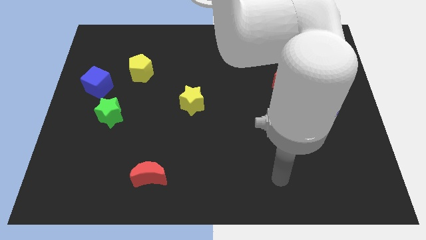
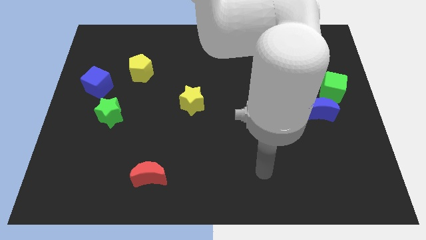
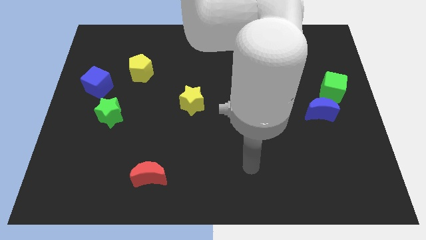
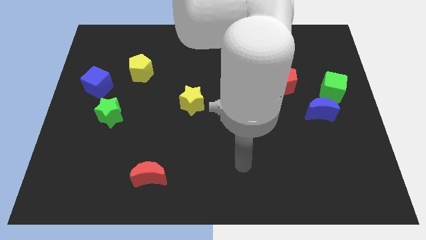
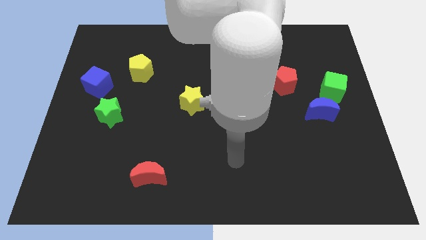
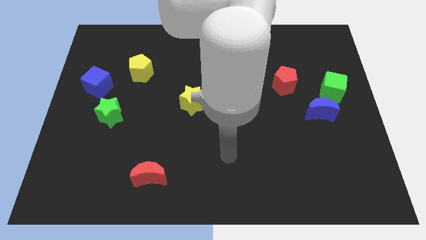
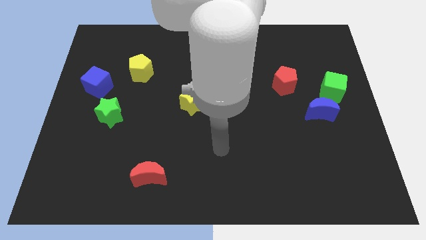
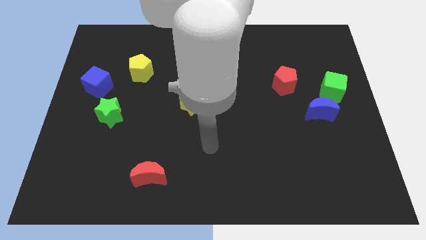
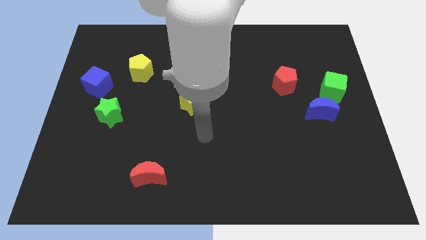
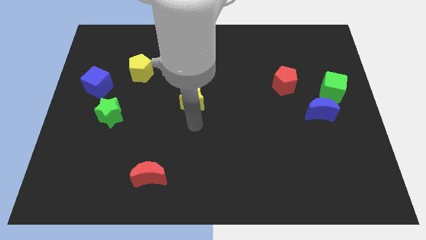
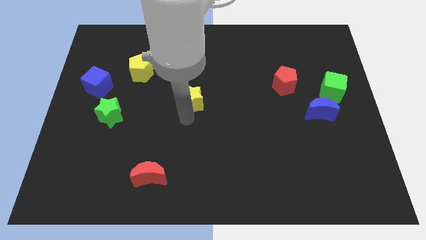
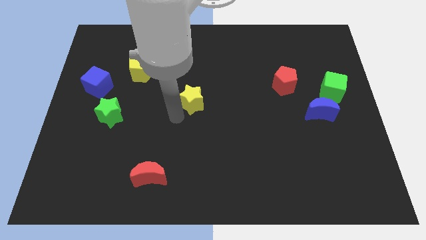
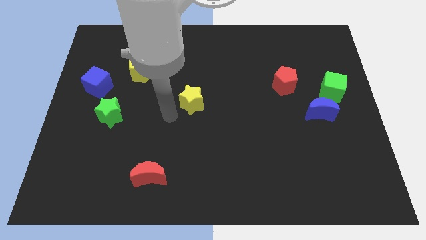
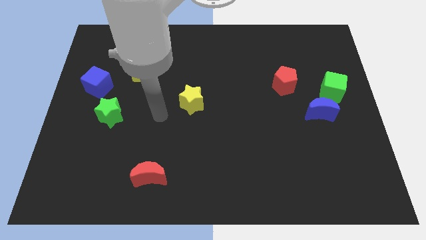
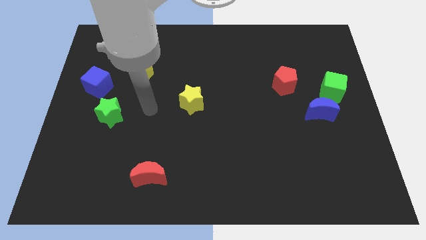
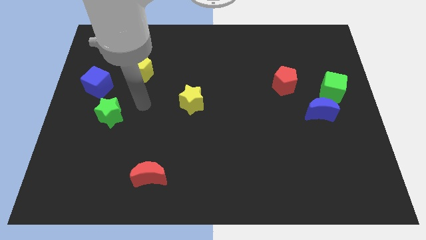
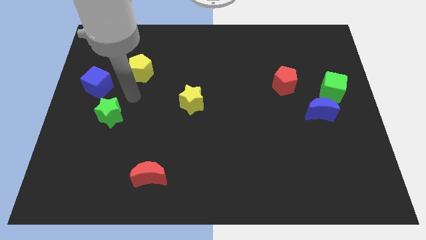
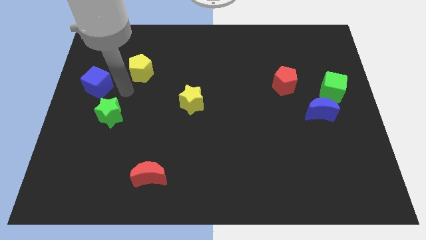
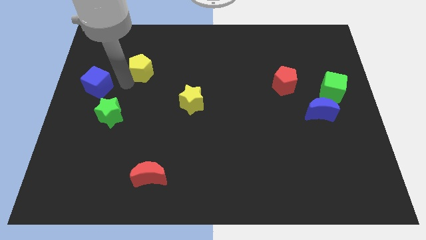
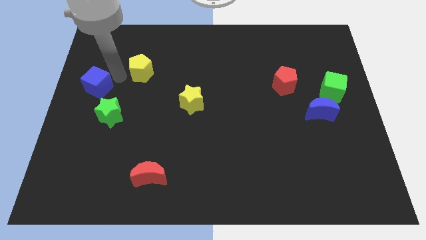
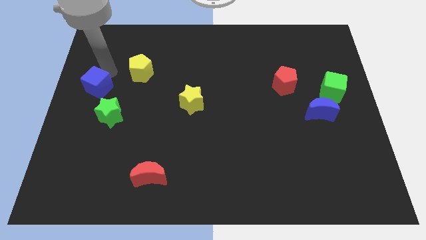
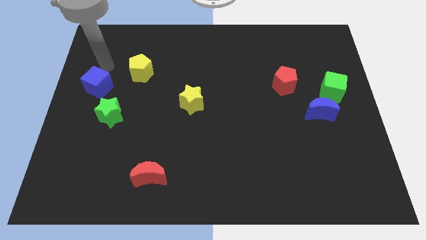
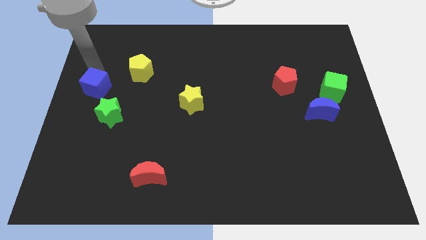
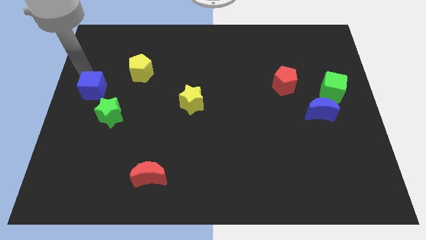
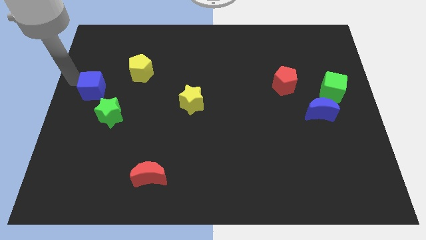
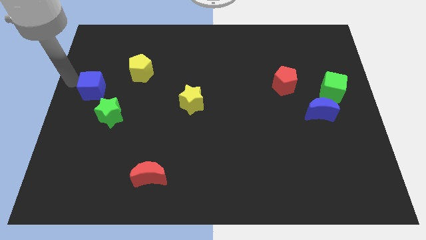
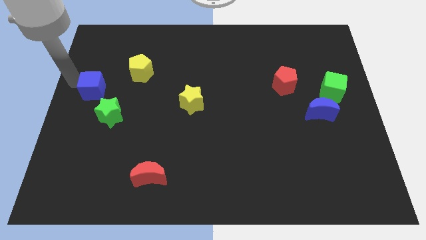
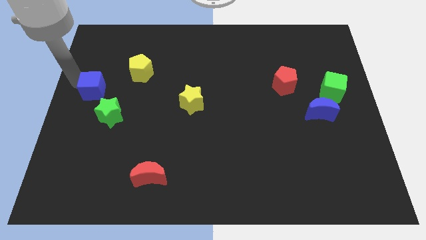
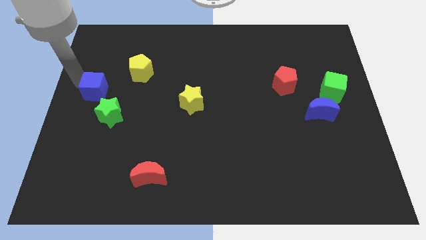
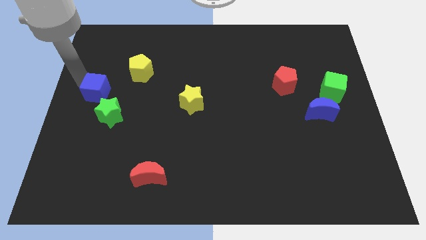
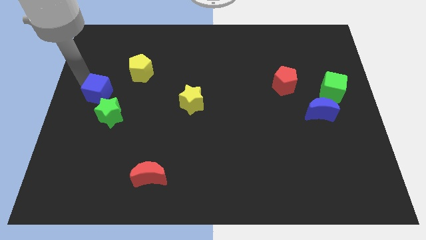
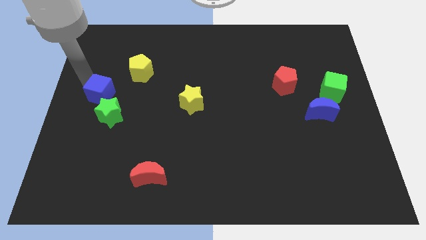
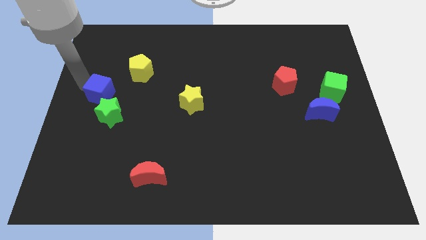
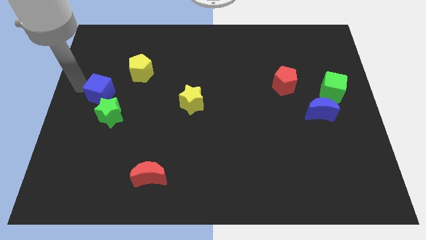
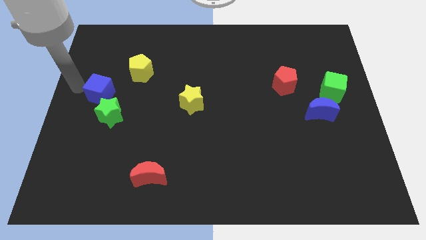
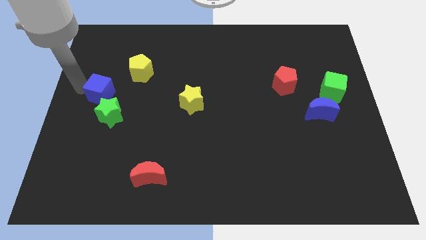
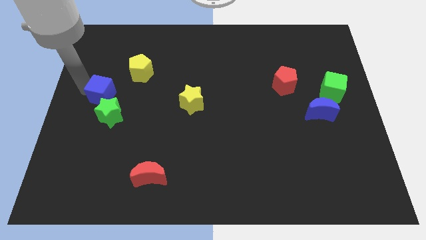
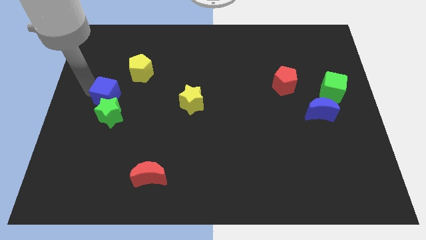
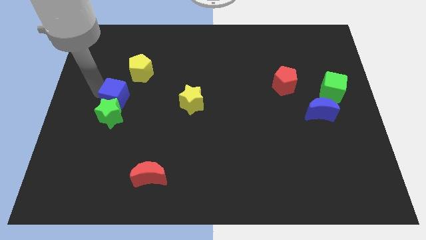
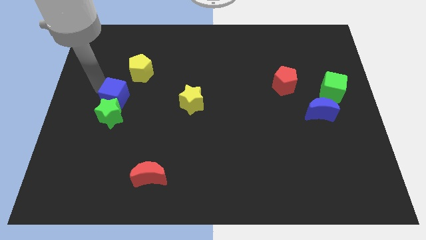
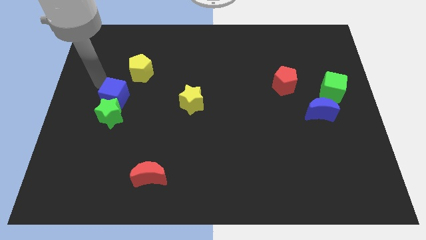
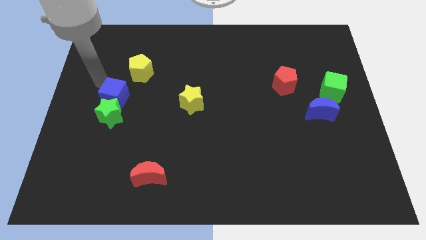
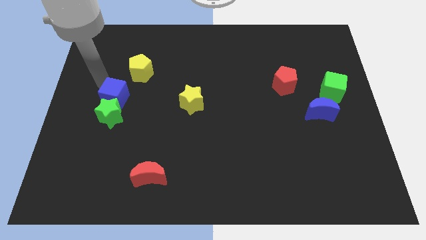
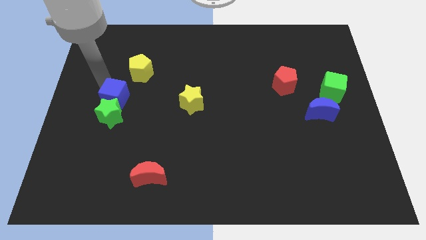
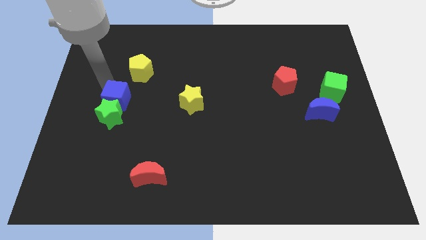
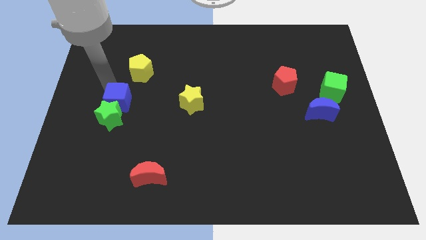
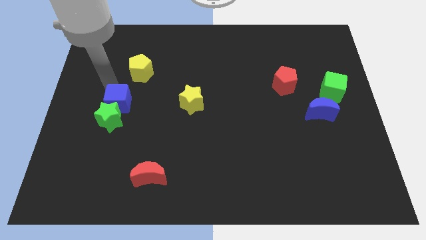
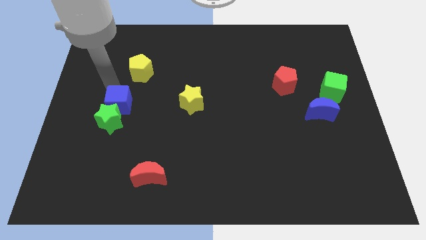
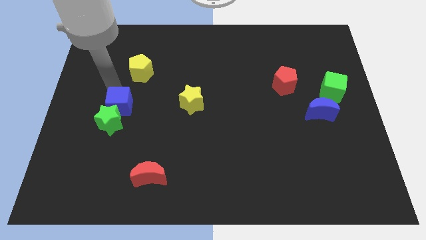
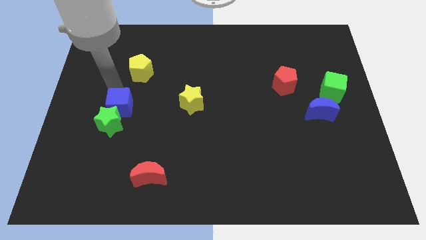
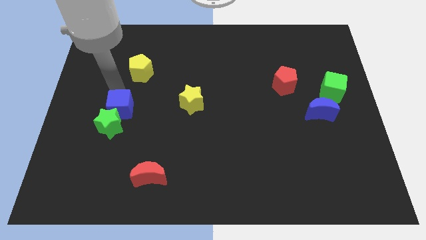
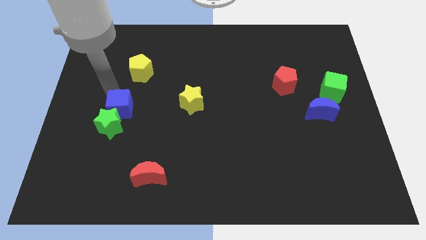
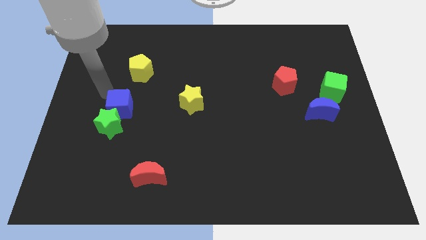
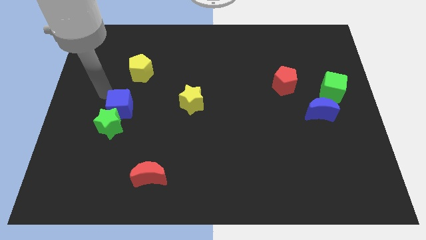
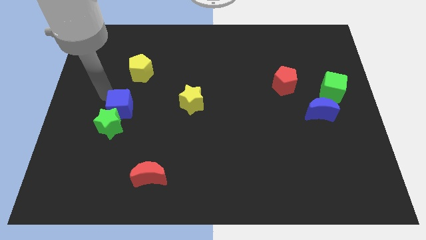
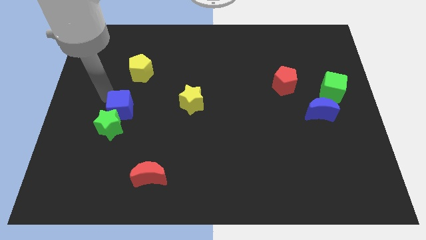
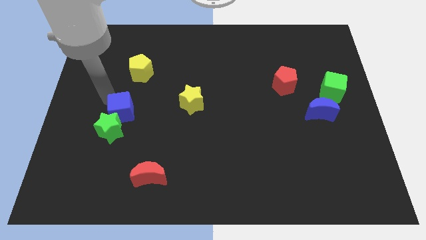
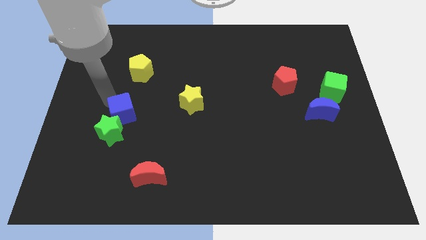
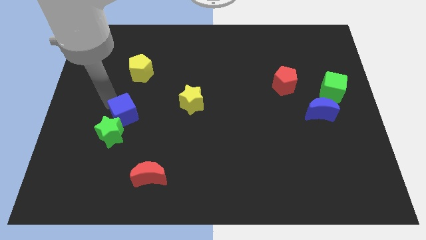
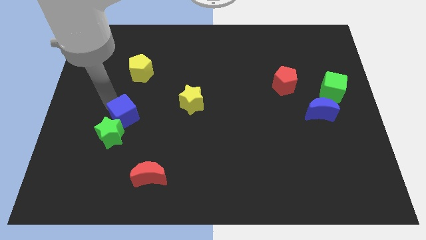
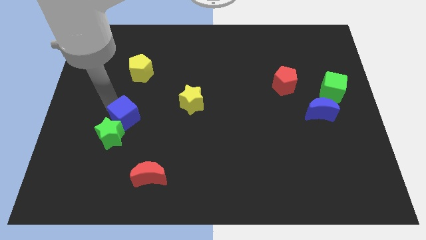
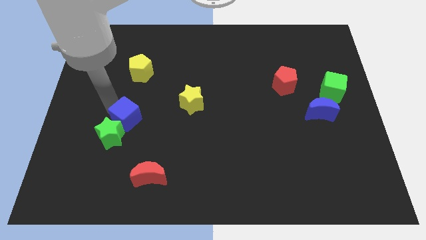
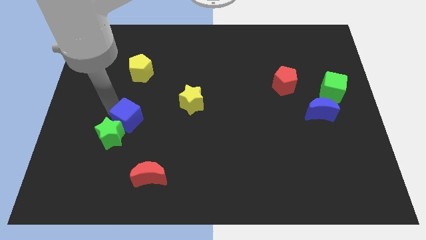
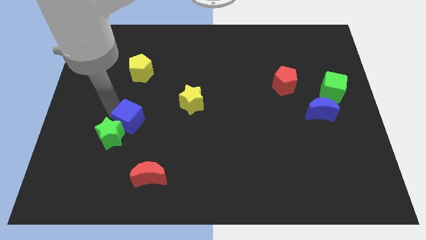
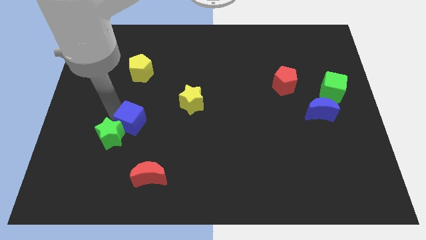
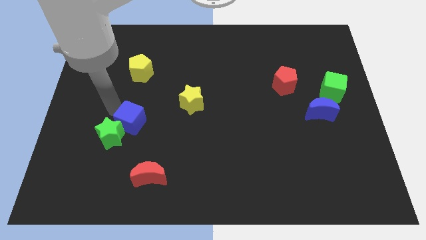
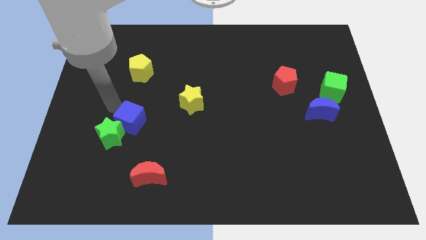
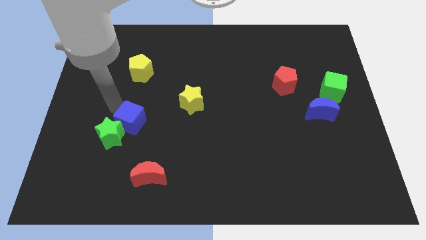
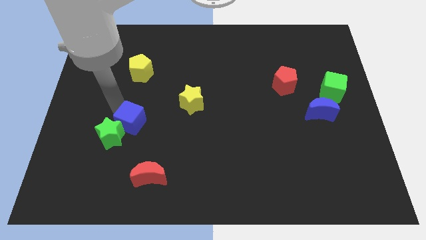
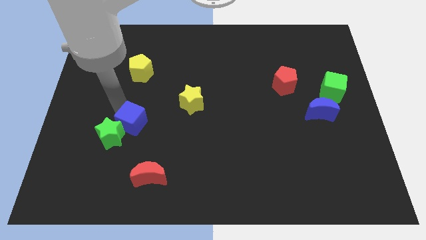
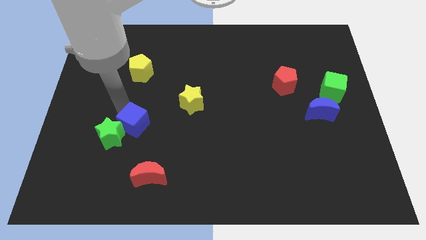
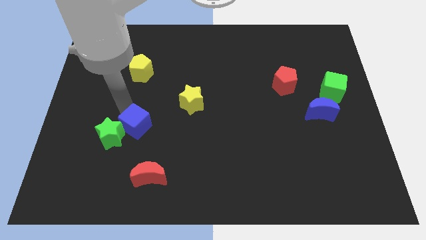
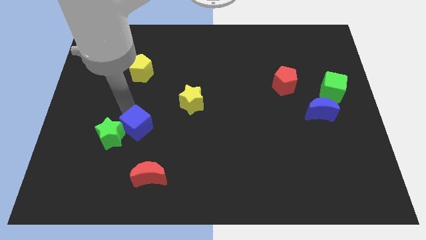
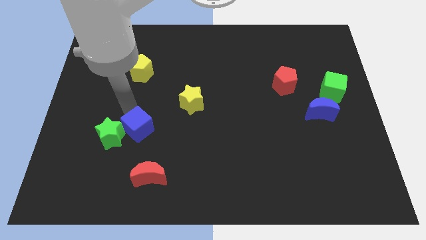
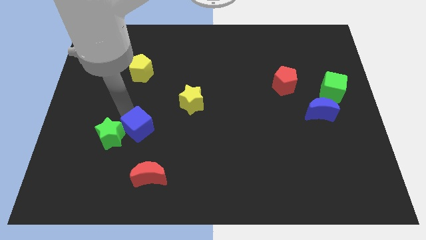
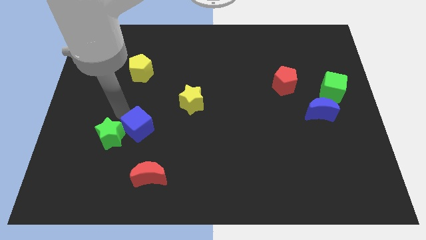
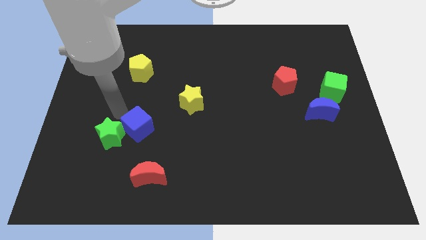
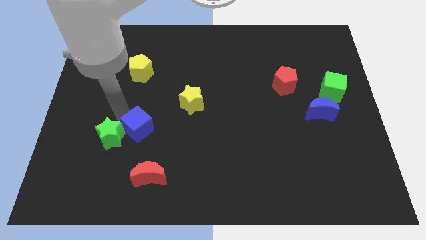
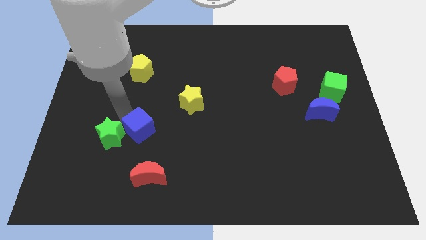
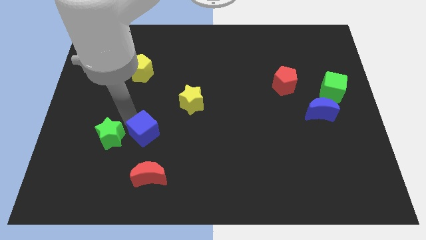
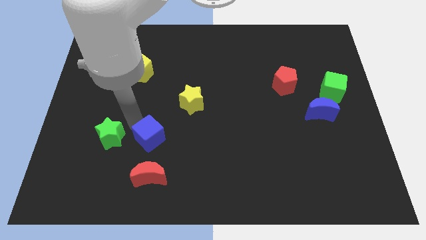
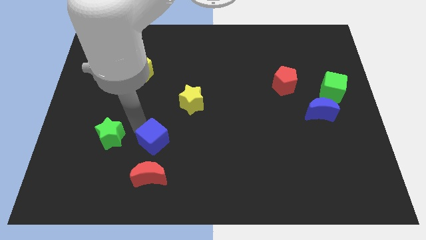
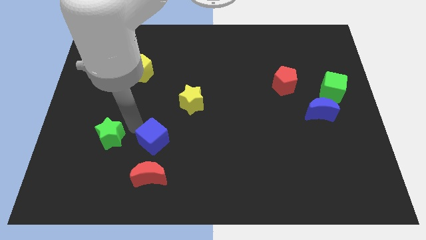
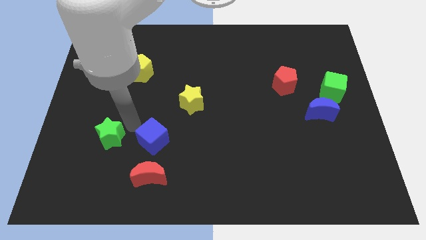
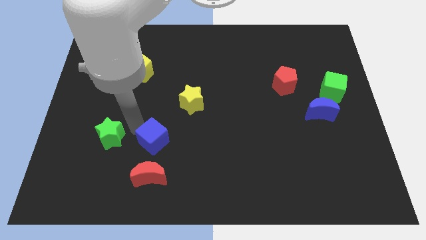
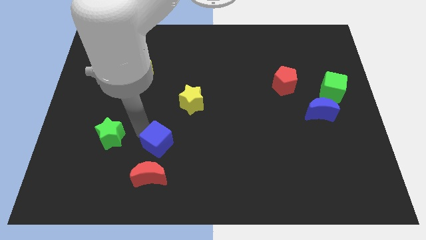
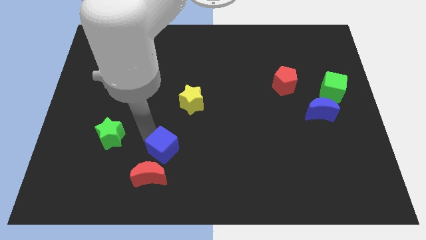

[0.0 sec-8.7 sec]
slide the blue cube to the top right side of the red moon
